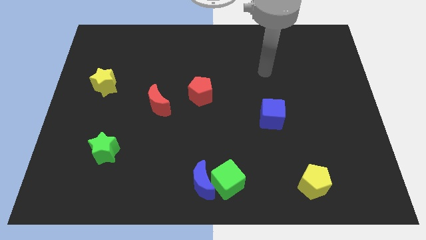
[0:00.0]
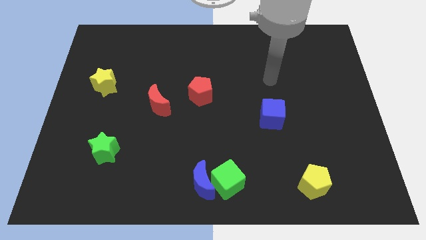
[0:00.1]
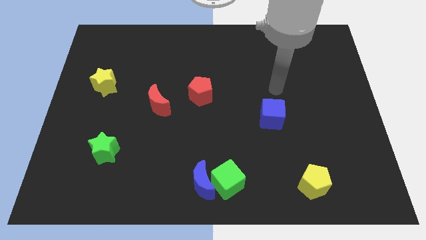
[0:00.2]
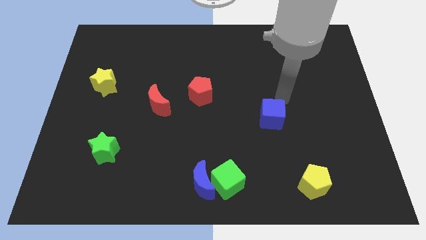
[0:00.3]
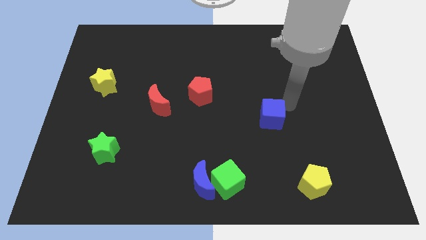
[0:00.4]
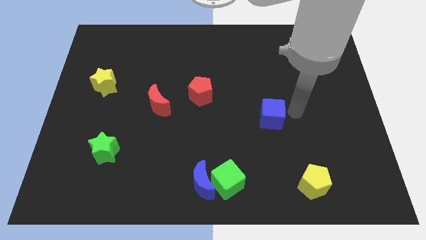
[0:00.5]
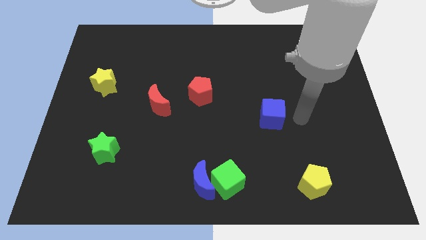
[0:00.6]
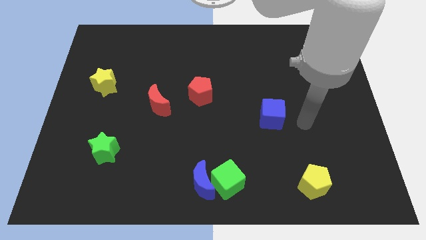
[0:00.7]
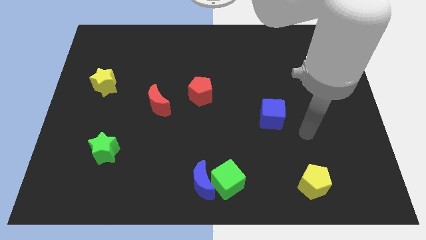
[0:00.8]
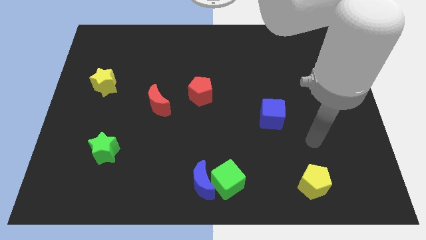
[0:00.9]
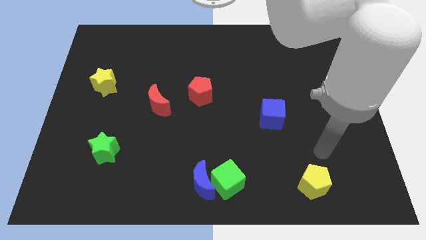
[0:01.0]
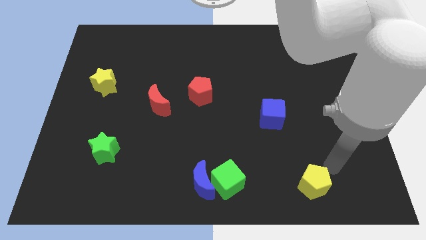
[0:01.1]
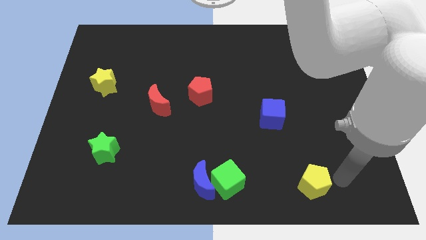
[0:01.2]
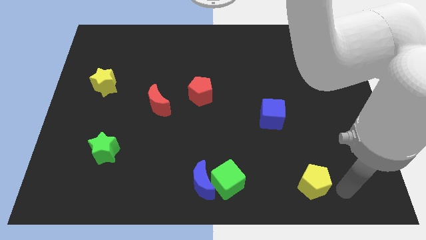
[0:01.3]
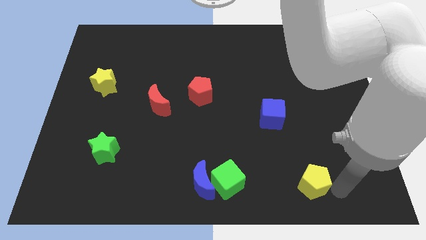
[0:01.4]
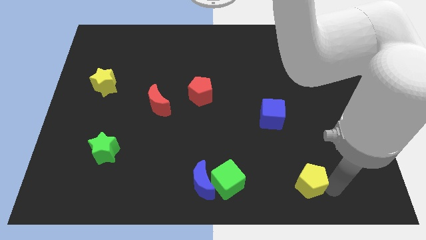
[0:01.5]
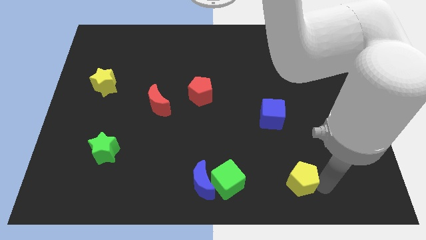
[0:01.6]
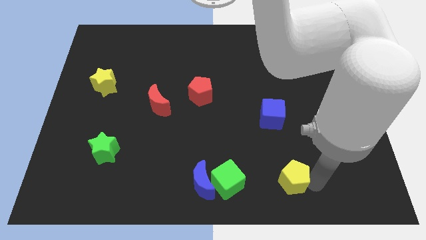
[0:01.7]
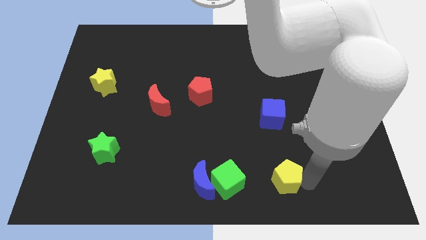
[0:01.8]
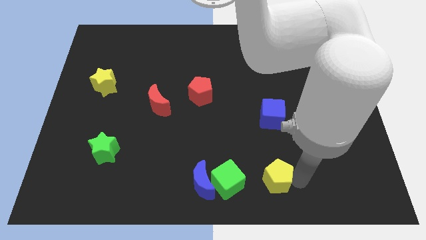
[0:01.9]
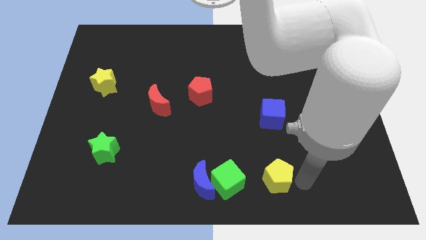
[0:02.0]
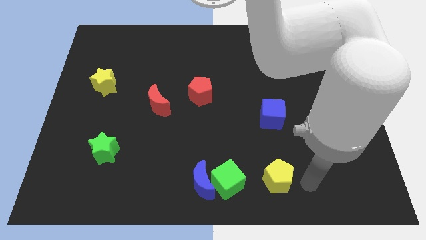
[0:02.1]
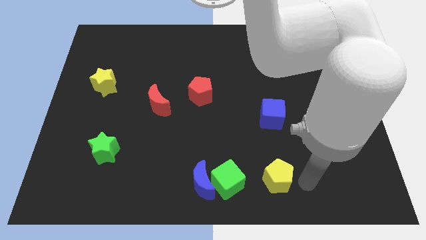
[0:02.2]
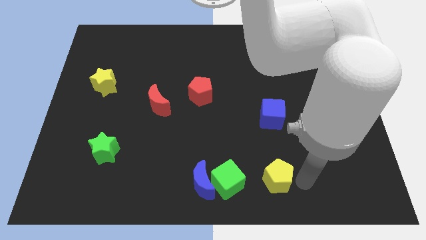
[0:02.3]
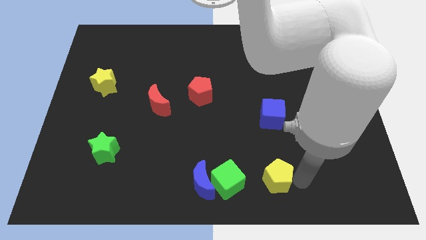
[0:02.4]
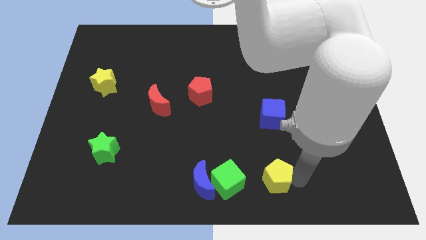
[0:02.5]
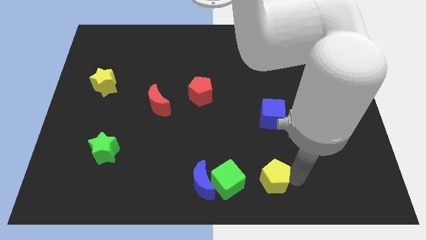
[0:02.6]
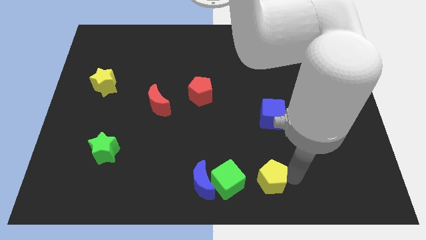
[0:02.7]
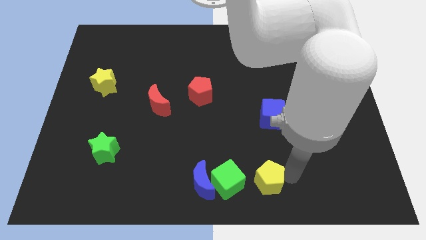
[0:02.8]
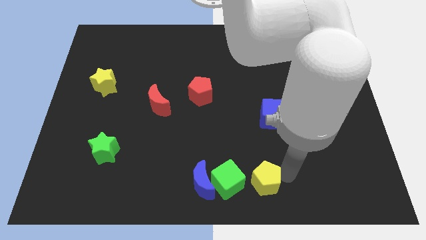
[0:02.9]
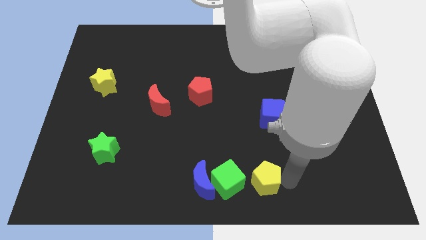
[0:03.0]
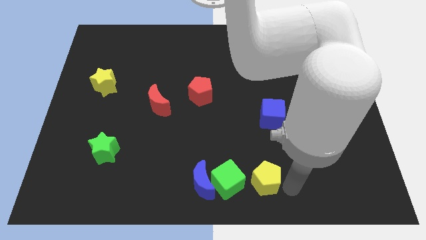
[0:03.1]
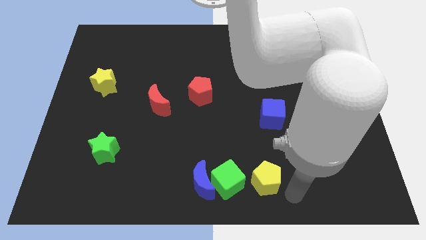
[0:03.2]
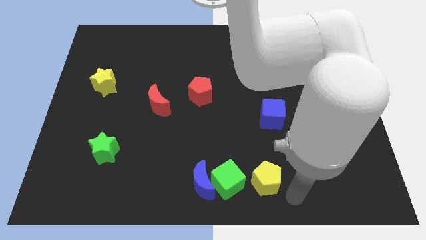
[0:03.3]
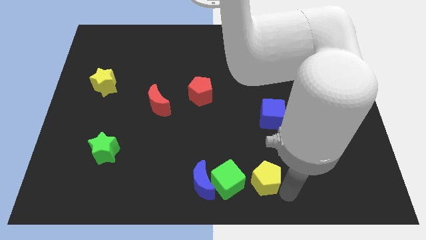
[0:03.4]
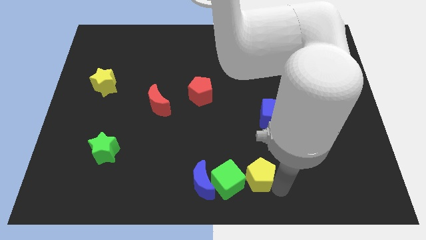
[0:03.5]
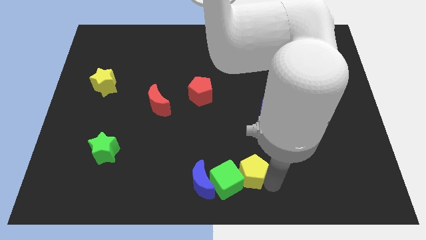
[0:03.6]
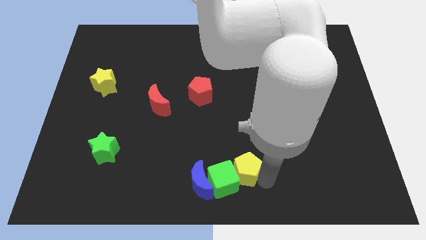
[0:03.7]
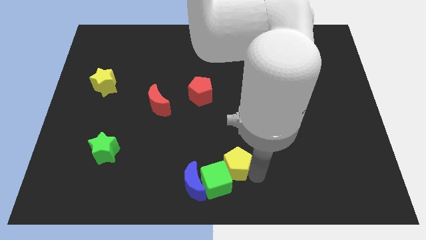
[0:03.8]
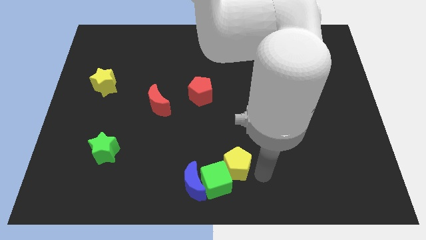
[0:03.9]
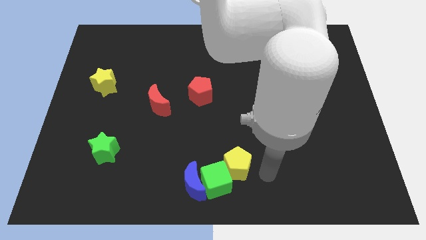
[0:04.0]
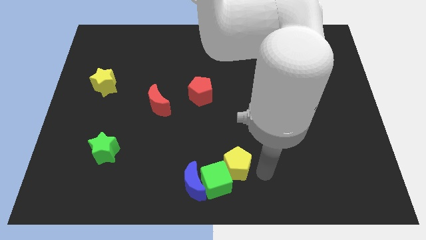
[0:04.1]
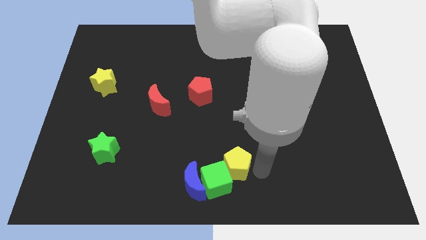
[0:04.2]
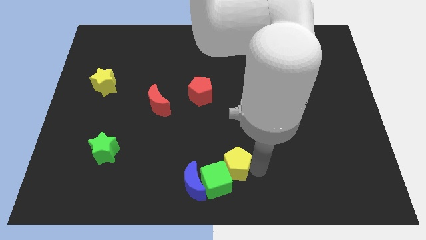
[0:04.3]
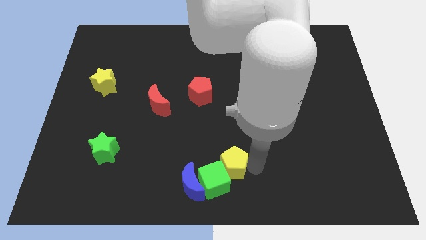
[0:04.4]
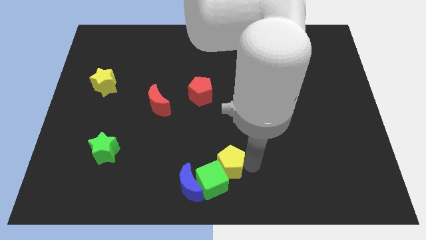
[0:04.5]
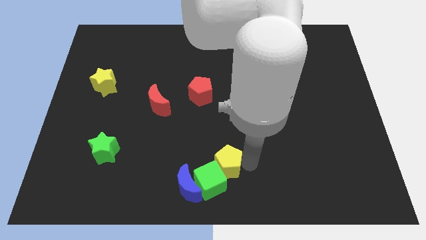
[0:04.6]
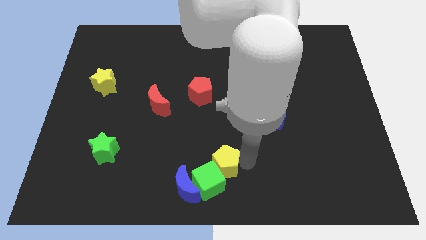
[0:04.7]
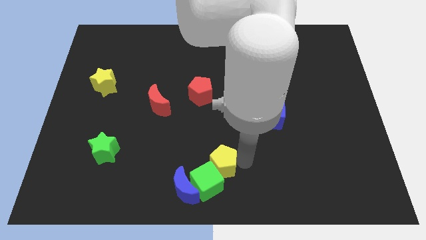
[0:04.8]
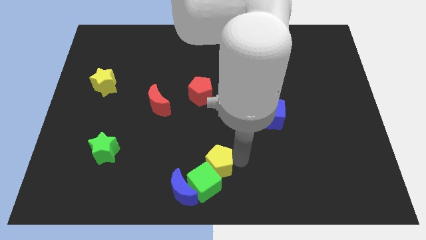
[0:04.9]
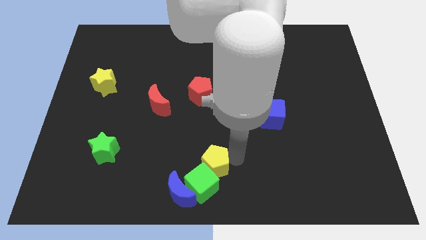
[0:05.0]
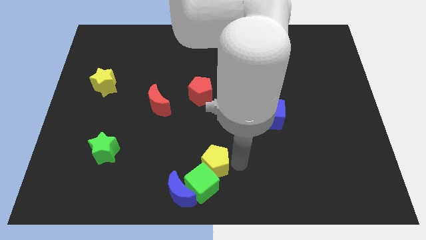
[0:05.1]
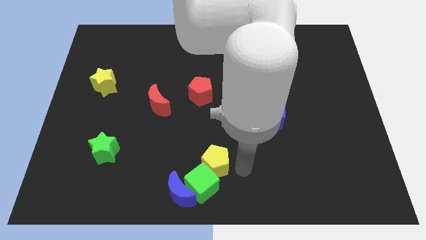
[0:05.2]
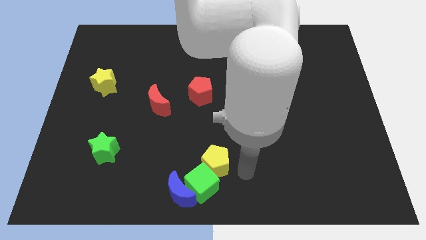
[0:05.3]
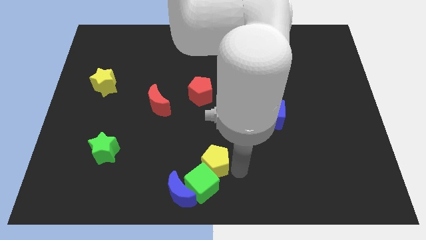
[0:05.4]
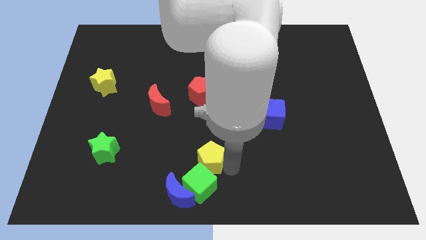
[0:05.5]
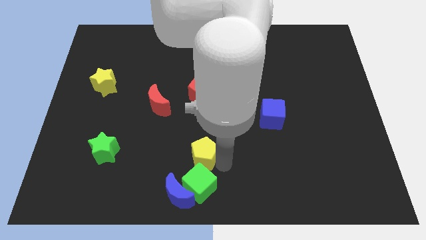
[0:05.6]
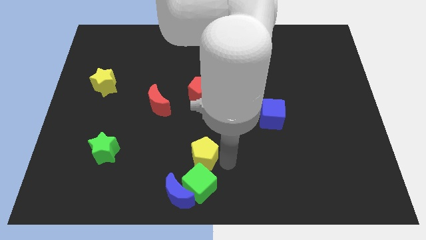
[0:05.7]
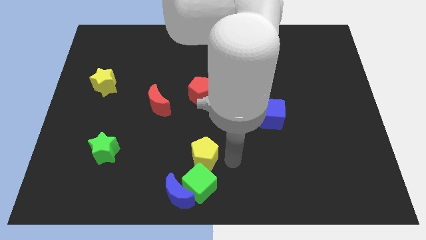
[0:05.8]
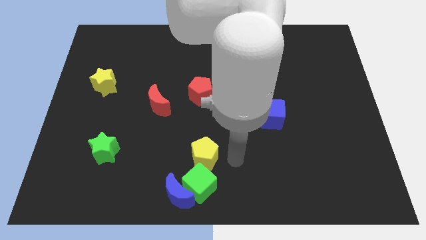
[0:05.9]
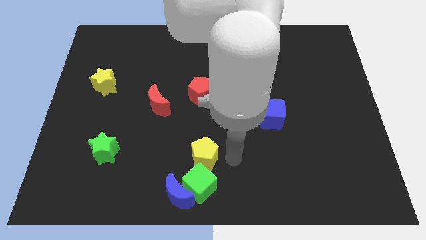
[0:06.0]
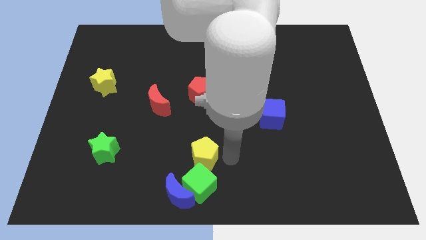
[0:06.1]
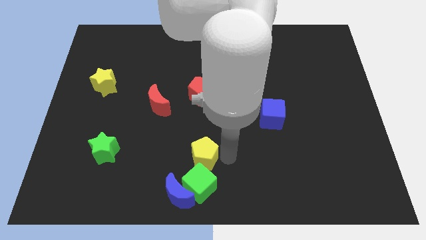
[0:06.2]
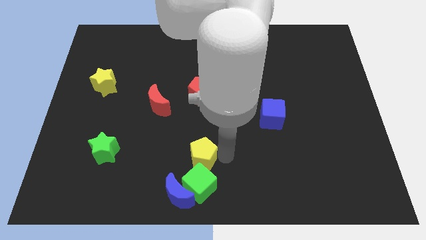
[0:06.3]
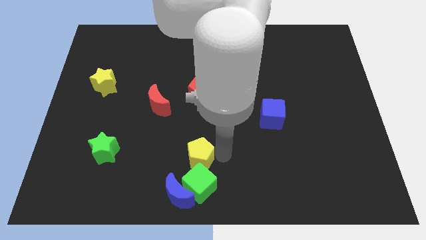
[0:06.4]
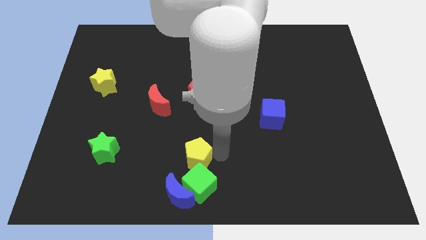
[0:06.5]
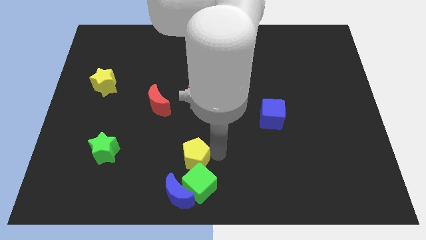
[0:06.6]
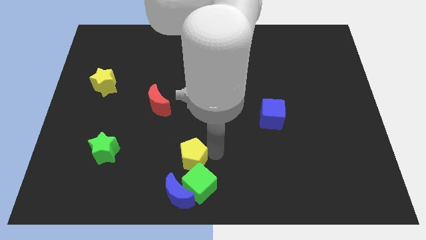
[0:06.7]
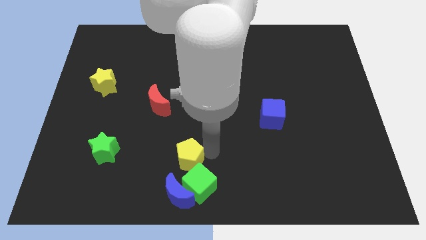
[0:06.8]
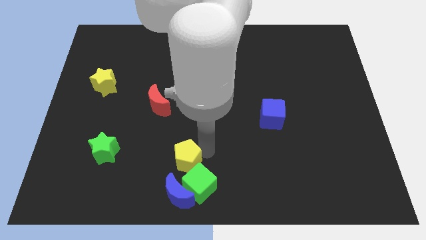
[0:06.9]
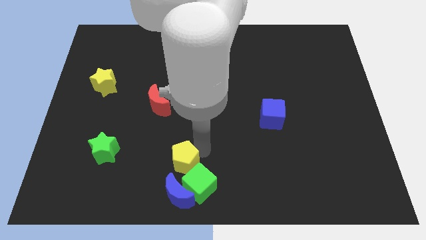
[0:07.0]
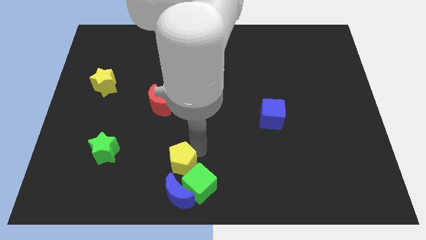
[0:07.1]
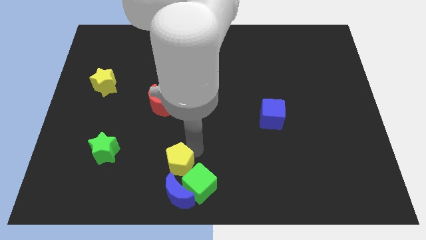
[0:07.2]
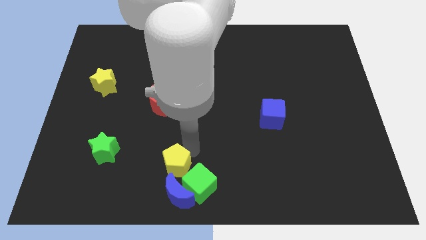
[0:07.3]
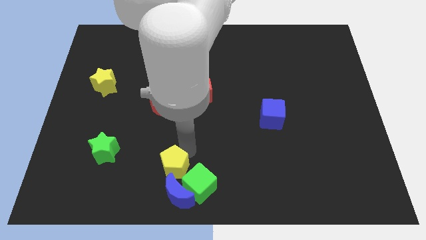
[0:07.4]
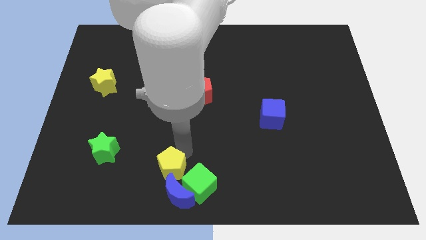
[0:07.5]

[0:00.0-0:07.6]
push the yellow pentagon just right of the green star
